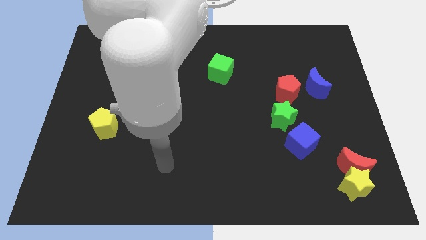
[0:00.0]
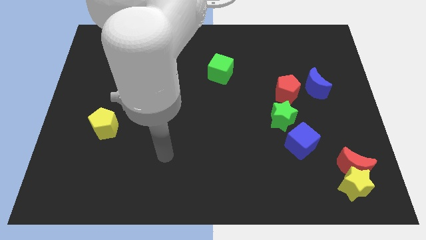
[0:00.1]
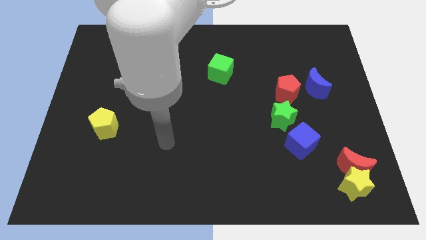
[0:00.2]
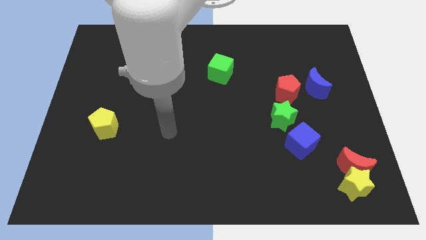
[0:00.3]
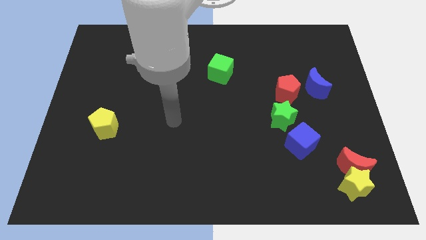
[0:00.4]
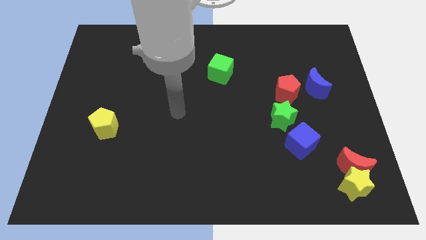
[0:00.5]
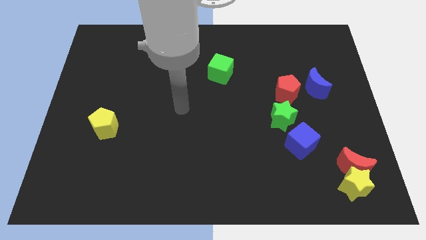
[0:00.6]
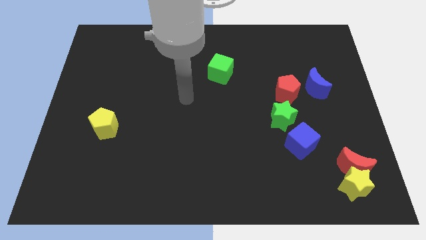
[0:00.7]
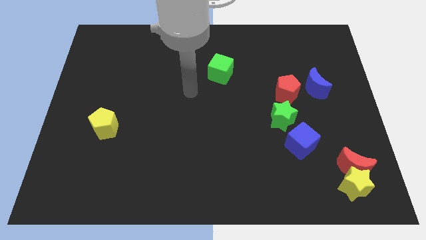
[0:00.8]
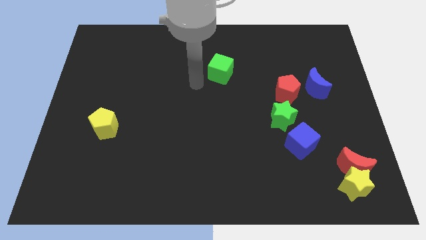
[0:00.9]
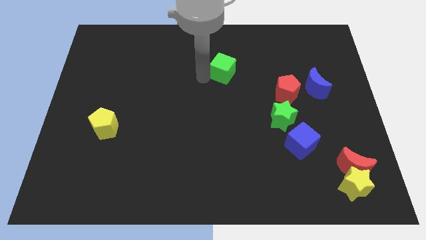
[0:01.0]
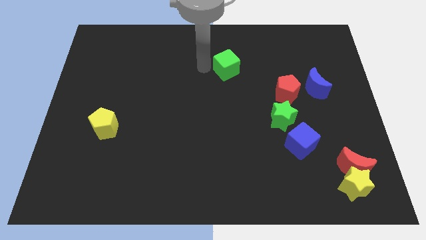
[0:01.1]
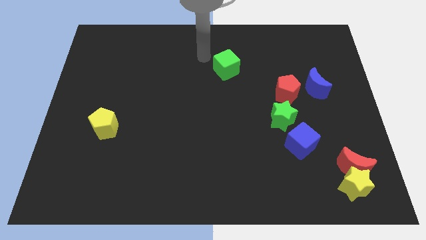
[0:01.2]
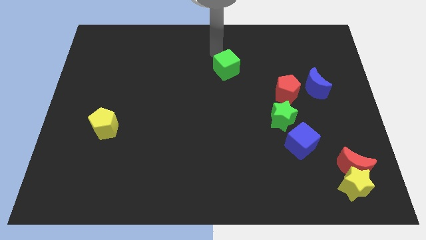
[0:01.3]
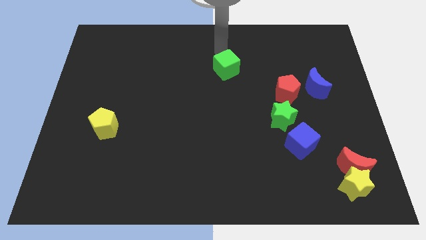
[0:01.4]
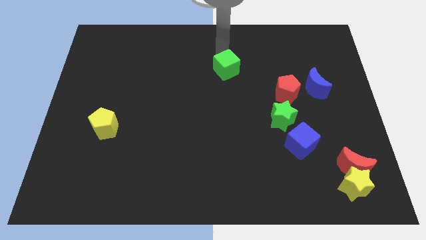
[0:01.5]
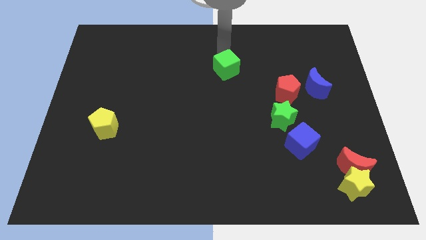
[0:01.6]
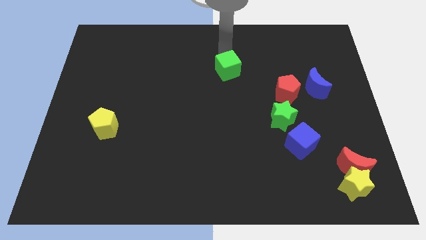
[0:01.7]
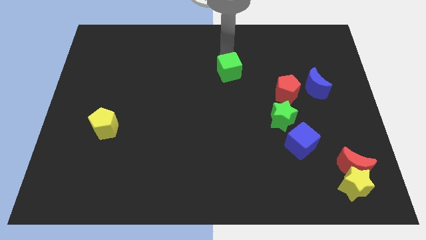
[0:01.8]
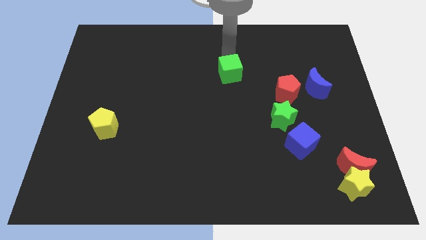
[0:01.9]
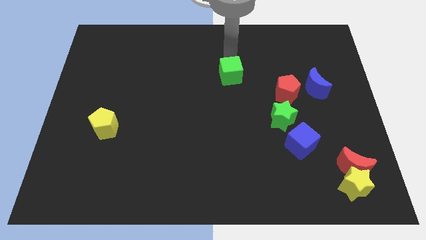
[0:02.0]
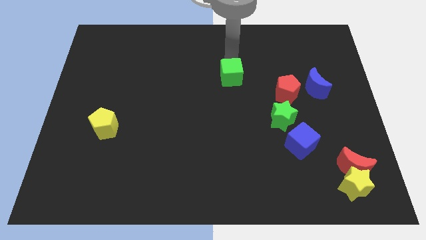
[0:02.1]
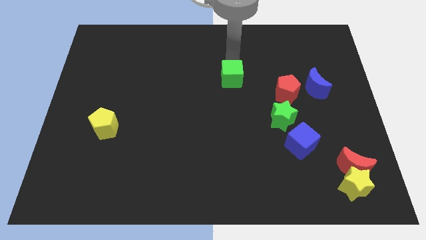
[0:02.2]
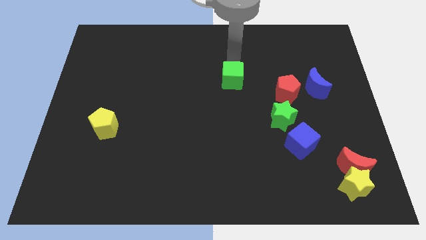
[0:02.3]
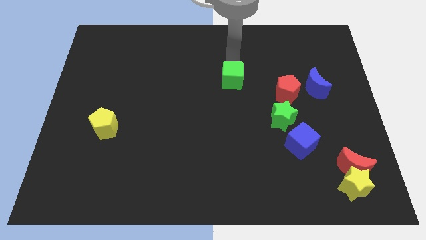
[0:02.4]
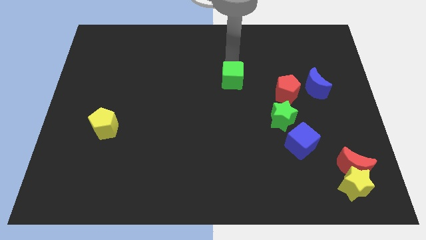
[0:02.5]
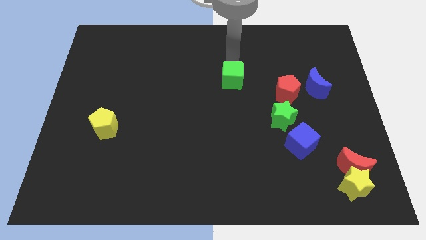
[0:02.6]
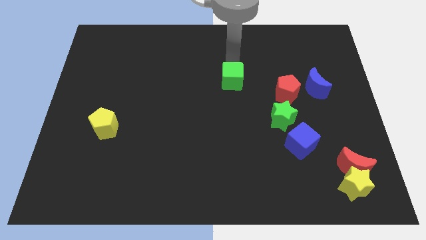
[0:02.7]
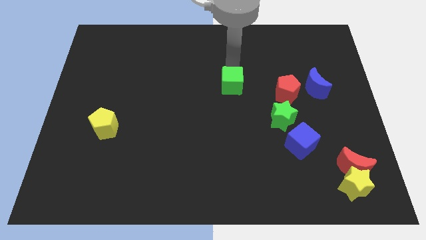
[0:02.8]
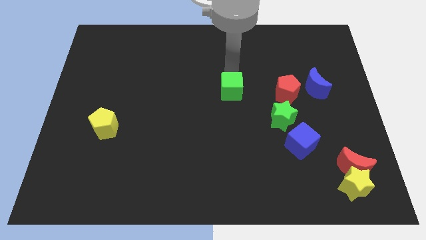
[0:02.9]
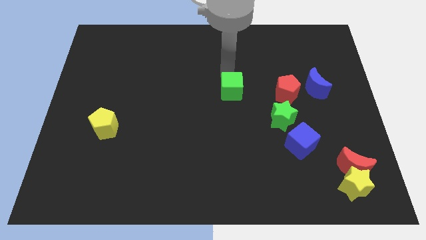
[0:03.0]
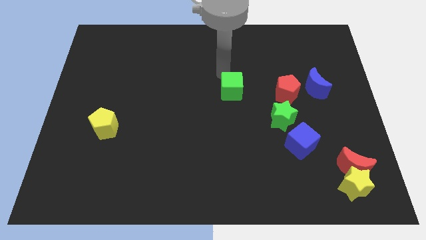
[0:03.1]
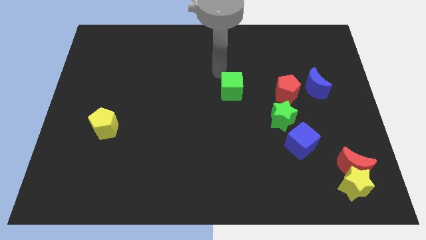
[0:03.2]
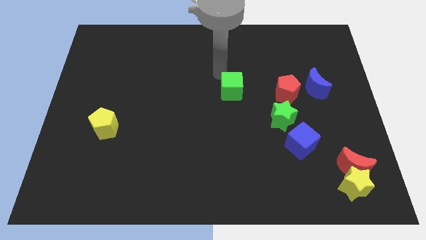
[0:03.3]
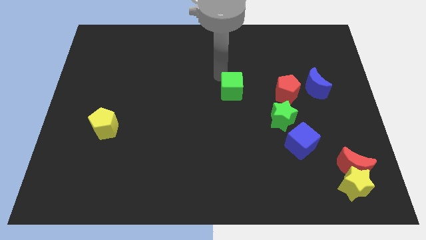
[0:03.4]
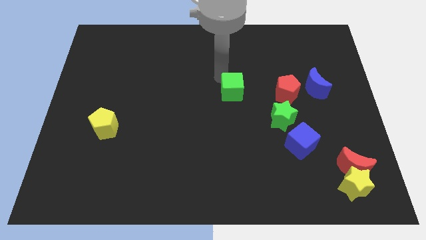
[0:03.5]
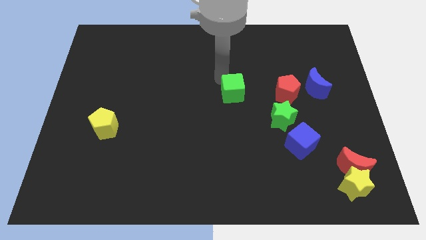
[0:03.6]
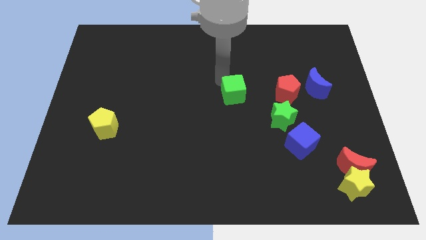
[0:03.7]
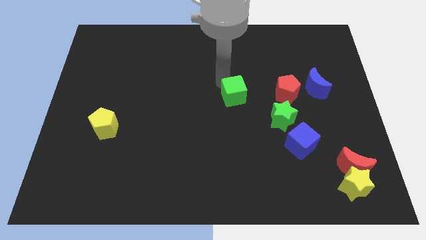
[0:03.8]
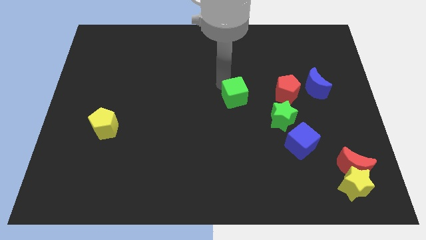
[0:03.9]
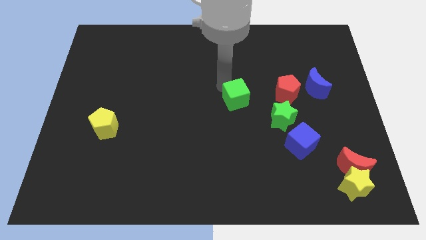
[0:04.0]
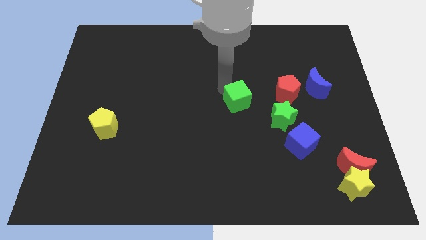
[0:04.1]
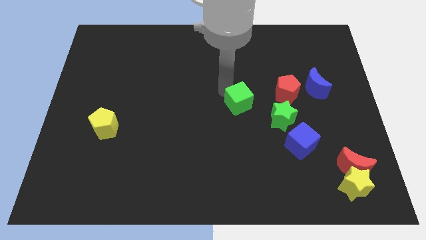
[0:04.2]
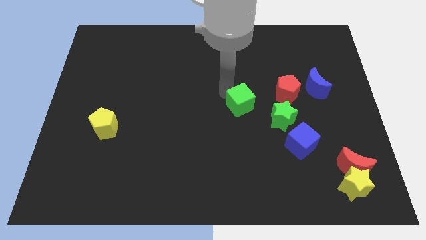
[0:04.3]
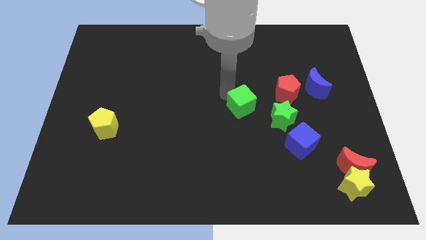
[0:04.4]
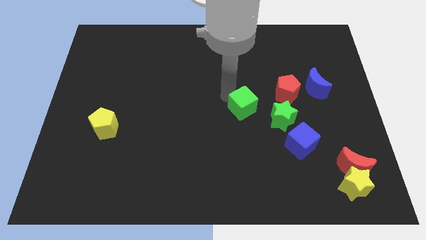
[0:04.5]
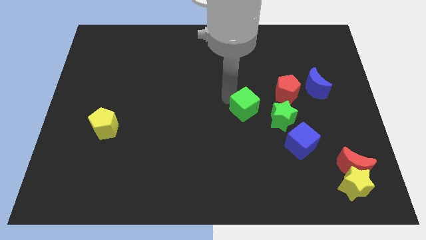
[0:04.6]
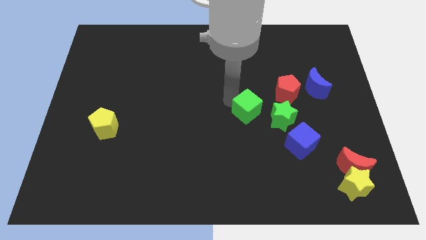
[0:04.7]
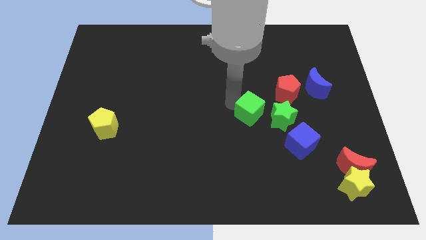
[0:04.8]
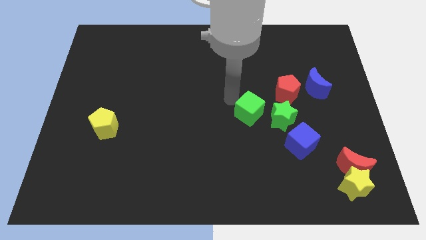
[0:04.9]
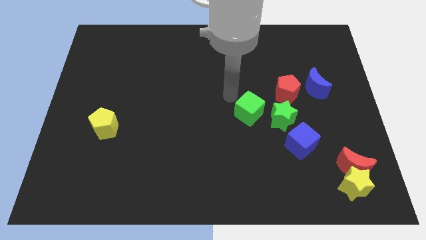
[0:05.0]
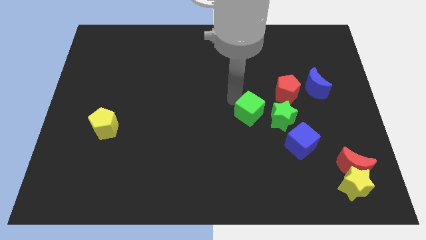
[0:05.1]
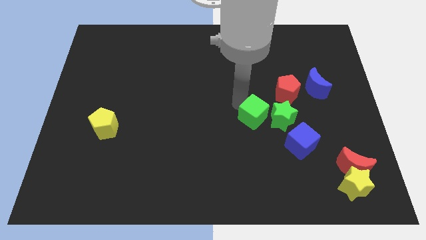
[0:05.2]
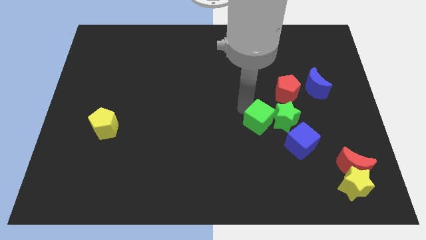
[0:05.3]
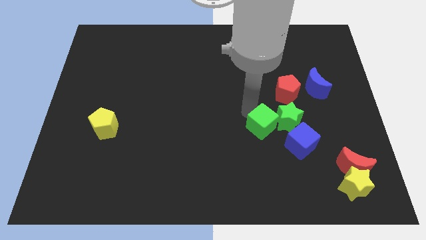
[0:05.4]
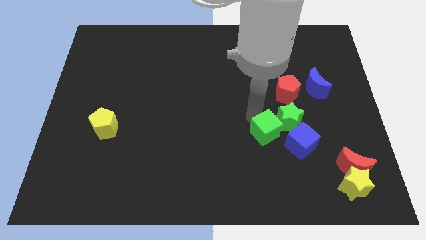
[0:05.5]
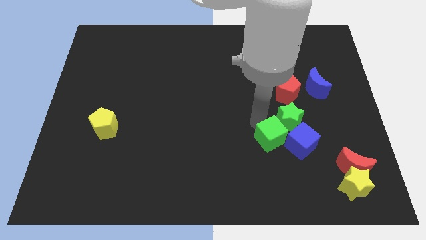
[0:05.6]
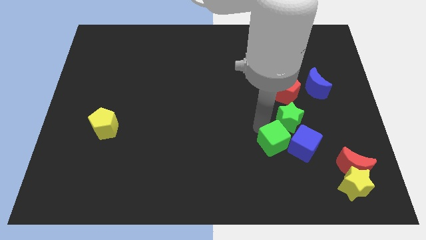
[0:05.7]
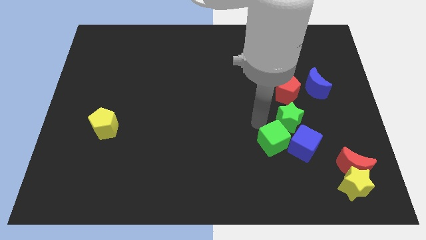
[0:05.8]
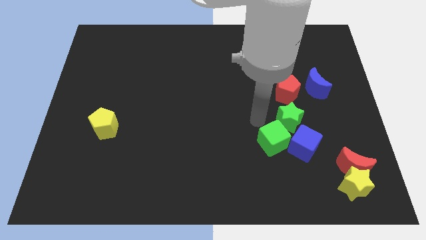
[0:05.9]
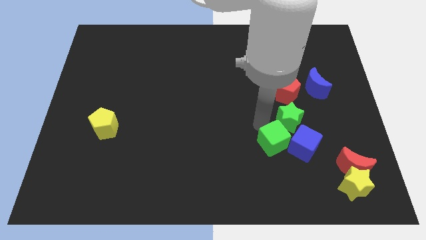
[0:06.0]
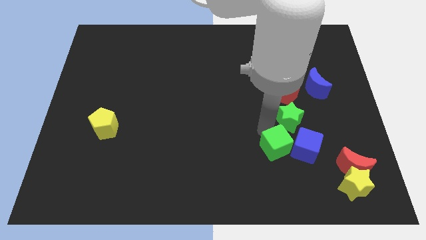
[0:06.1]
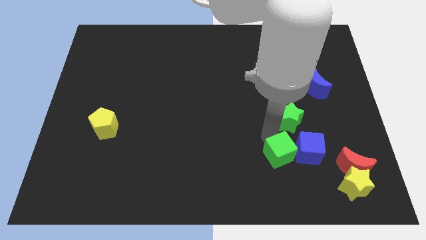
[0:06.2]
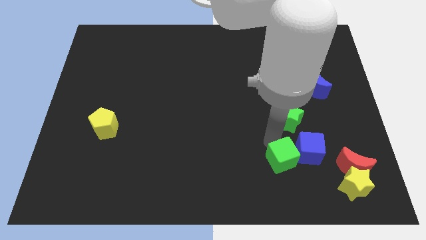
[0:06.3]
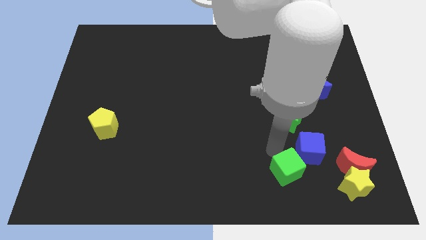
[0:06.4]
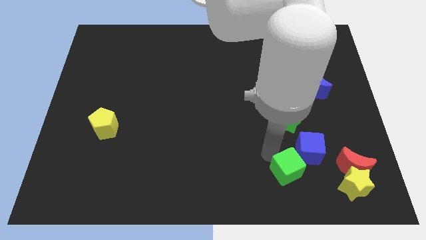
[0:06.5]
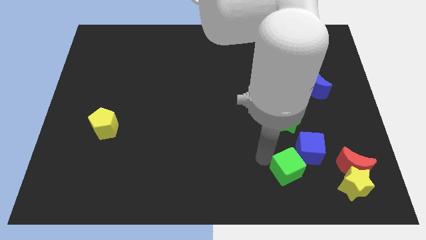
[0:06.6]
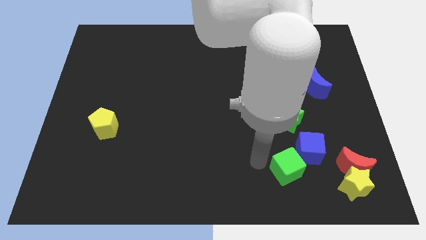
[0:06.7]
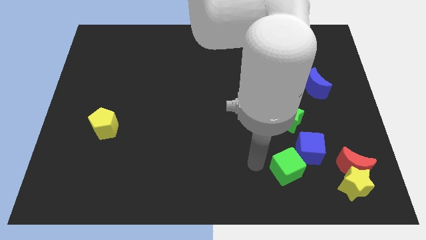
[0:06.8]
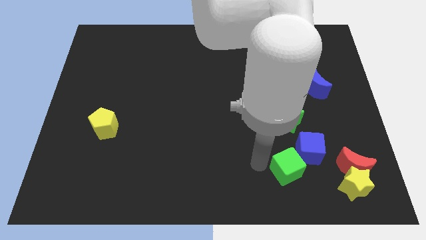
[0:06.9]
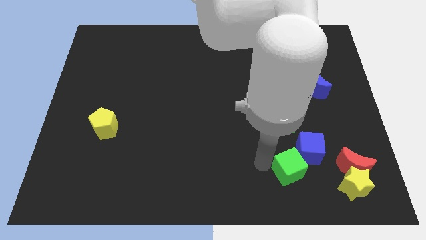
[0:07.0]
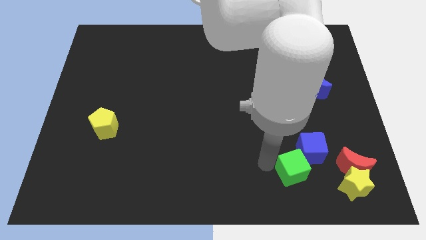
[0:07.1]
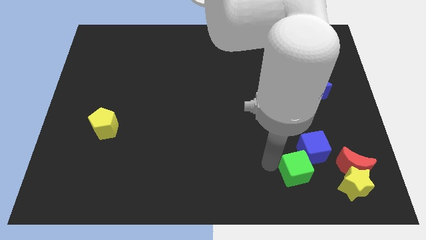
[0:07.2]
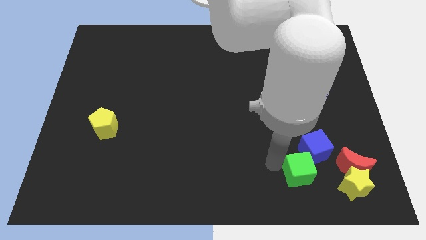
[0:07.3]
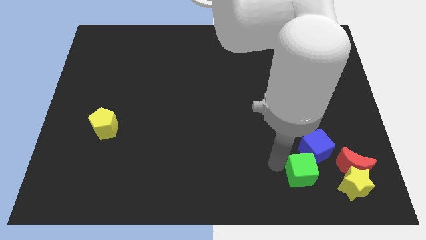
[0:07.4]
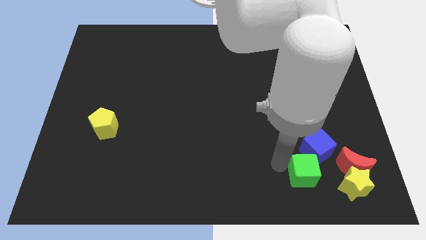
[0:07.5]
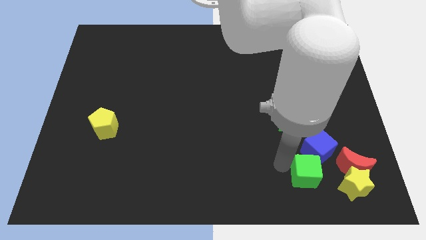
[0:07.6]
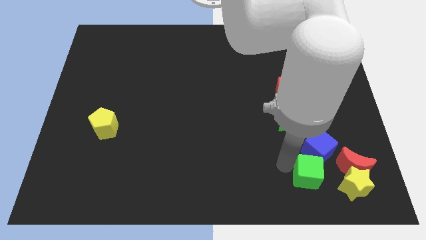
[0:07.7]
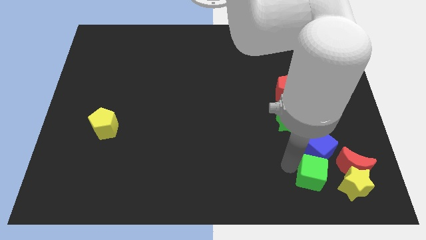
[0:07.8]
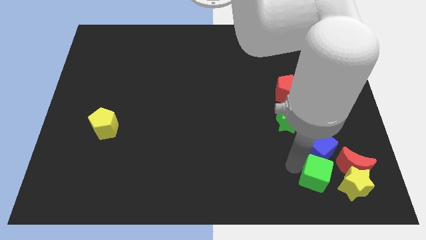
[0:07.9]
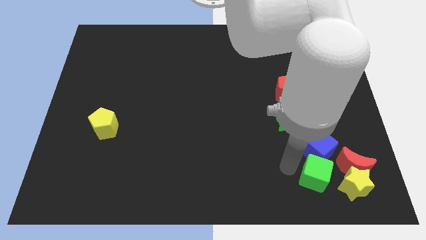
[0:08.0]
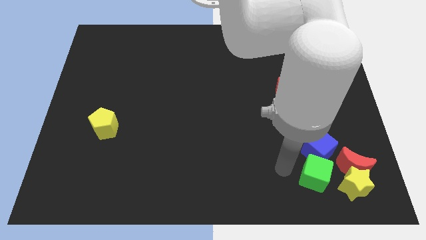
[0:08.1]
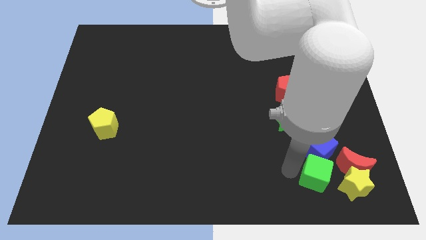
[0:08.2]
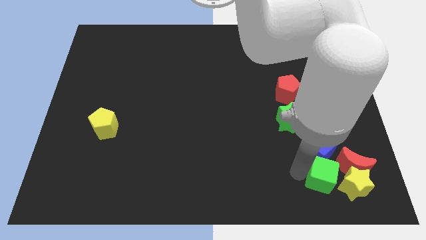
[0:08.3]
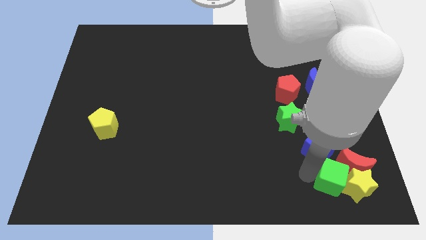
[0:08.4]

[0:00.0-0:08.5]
slide the green cube next to the yellow star
